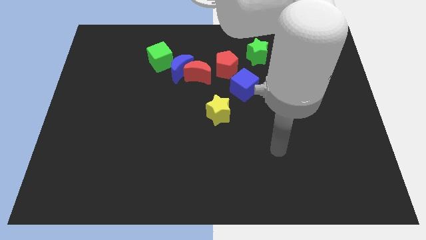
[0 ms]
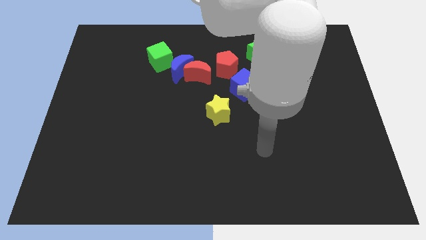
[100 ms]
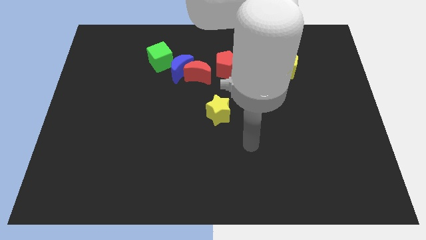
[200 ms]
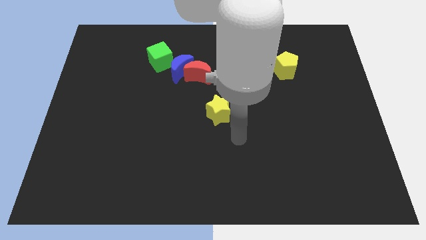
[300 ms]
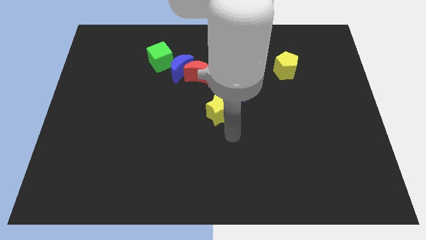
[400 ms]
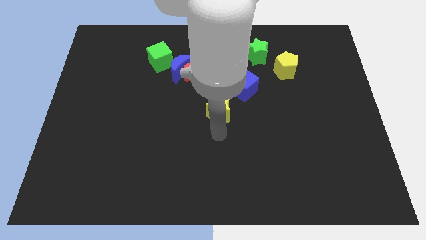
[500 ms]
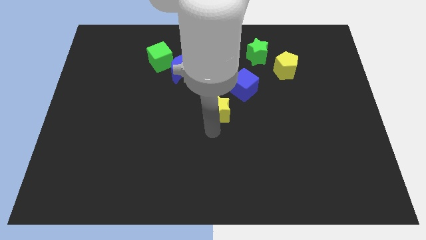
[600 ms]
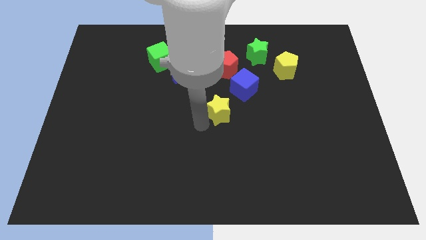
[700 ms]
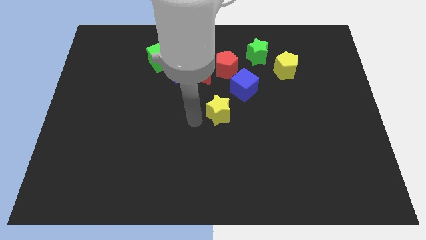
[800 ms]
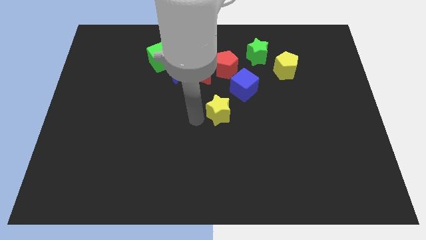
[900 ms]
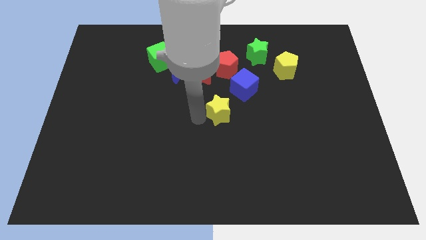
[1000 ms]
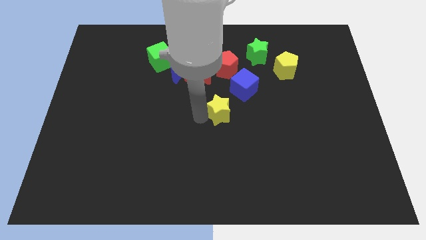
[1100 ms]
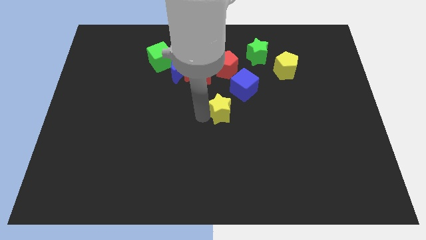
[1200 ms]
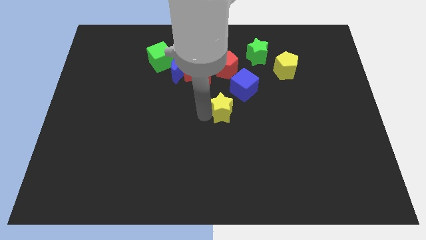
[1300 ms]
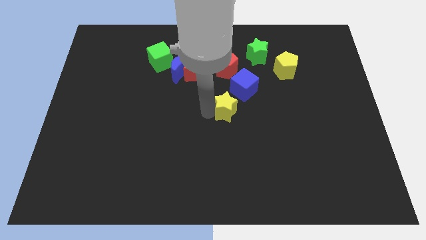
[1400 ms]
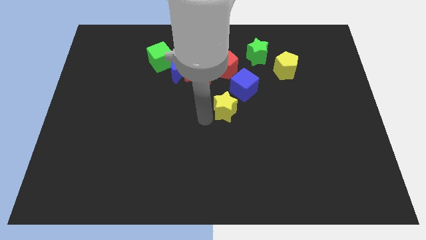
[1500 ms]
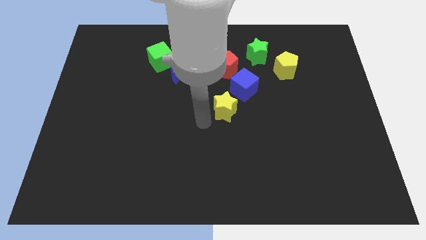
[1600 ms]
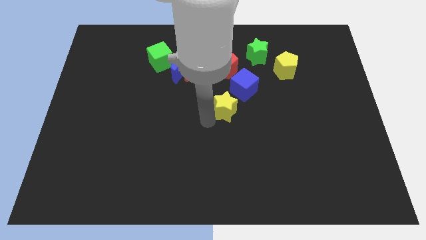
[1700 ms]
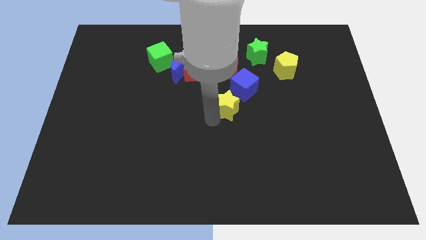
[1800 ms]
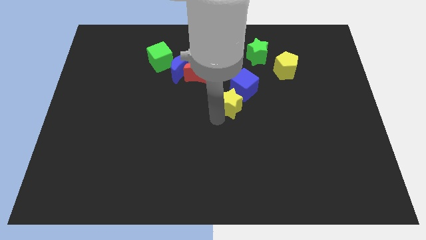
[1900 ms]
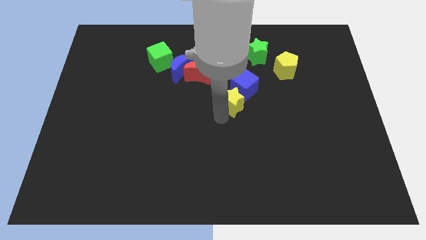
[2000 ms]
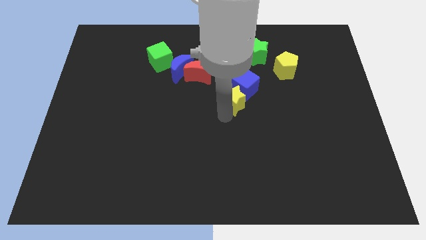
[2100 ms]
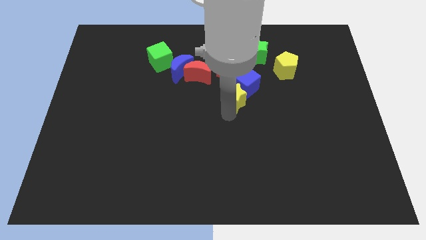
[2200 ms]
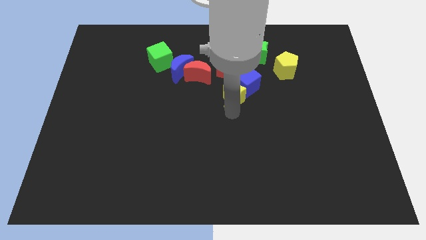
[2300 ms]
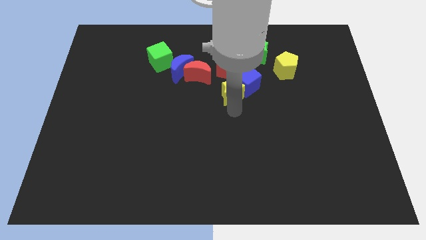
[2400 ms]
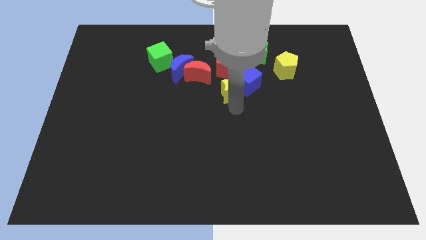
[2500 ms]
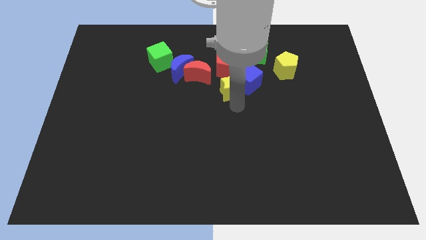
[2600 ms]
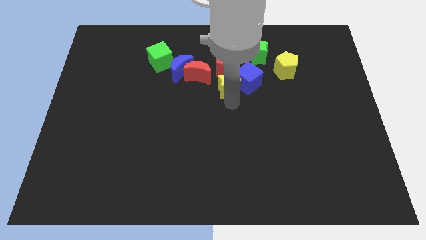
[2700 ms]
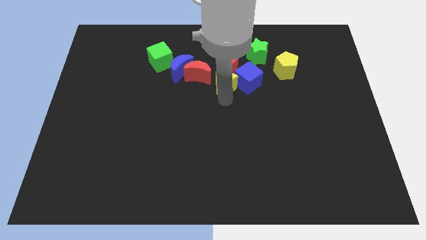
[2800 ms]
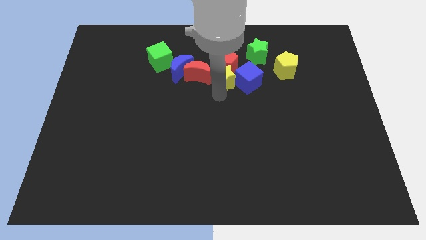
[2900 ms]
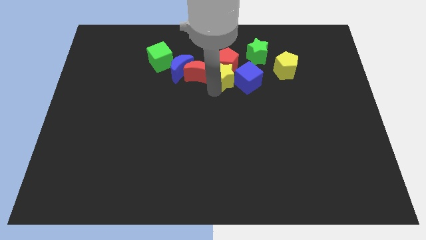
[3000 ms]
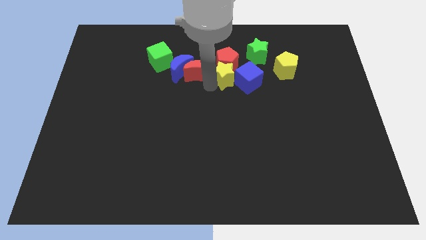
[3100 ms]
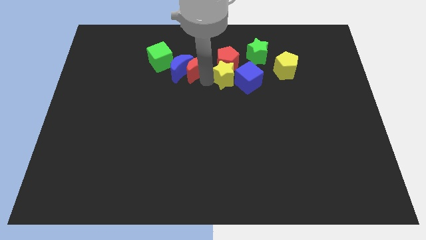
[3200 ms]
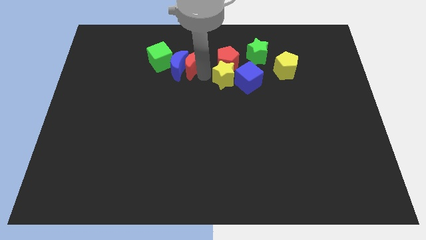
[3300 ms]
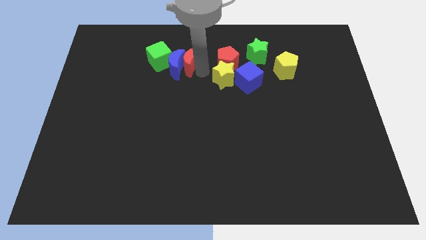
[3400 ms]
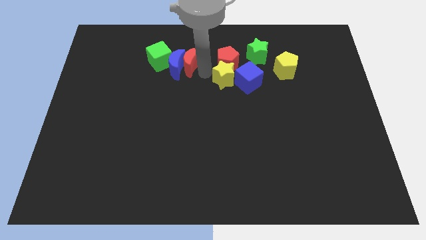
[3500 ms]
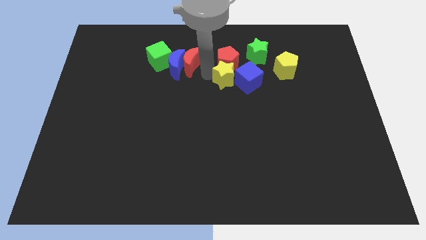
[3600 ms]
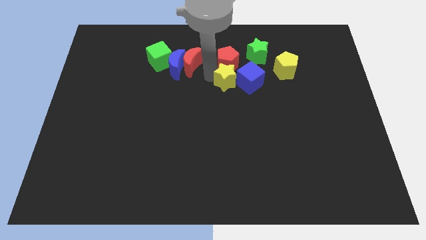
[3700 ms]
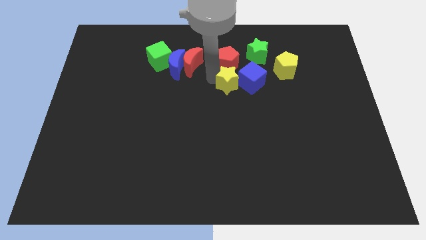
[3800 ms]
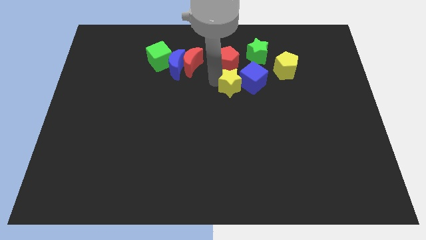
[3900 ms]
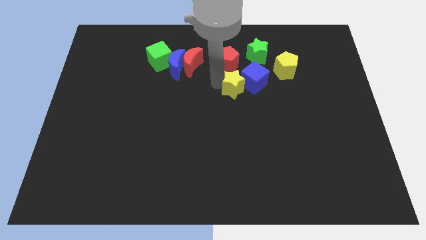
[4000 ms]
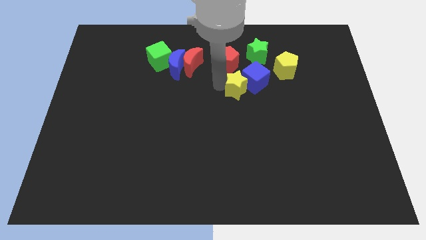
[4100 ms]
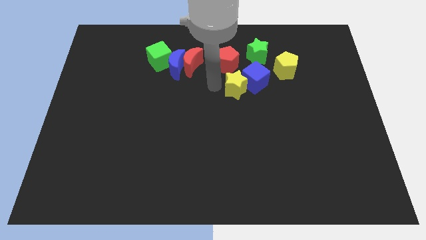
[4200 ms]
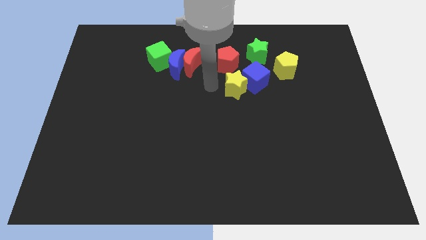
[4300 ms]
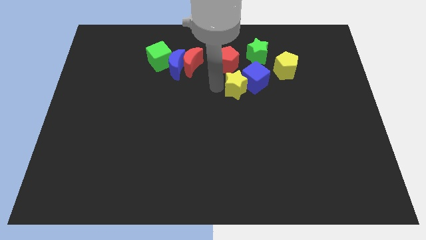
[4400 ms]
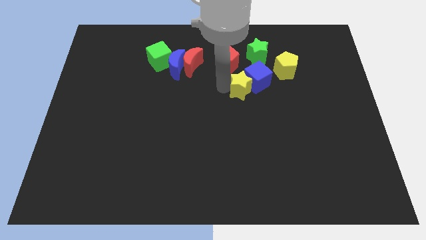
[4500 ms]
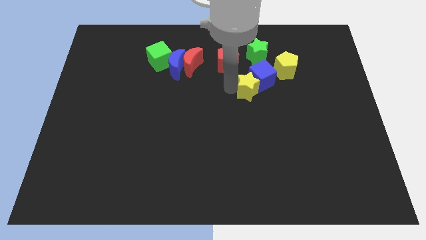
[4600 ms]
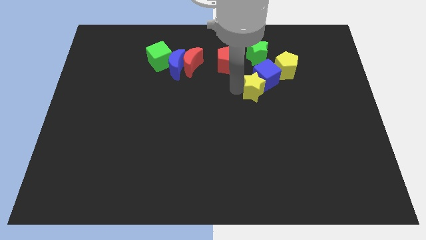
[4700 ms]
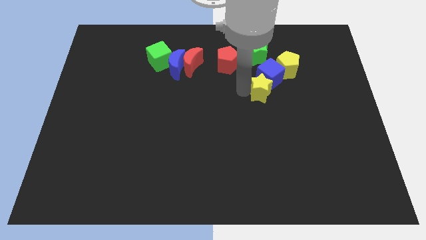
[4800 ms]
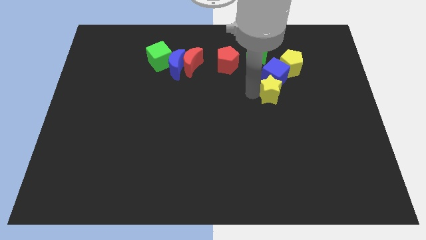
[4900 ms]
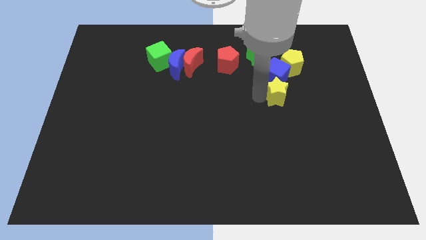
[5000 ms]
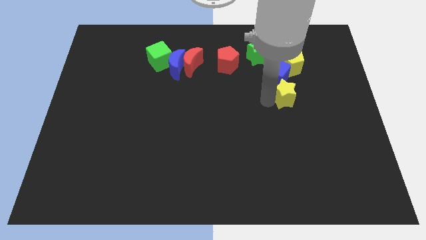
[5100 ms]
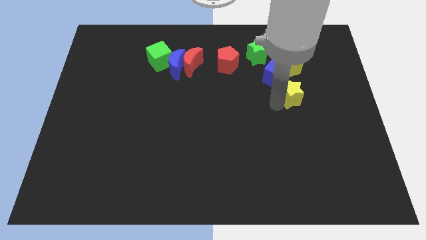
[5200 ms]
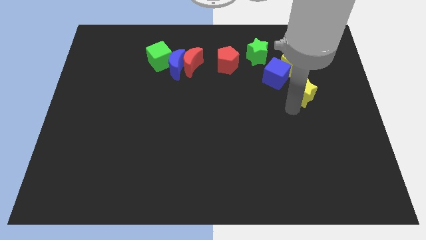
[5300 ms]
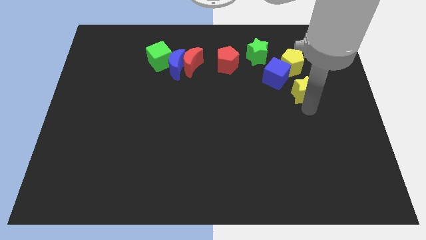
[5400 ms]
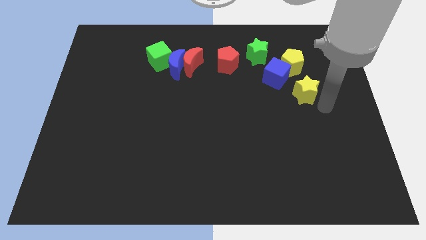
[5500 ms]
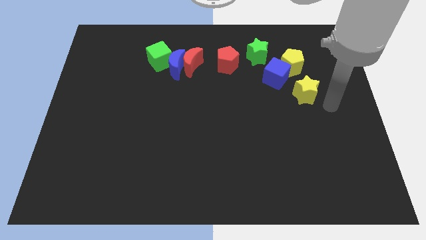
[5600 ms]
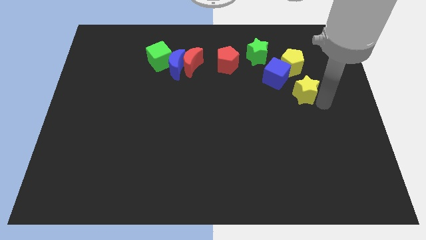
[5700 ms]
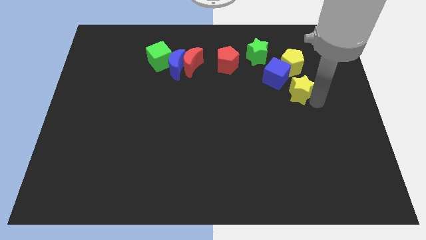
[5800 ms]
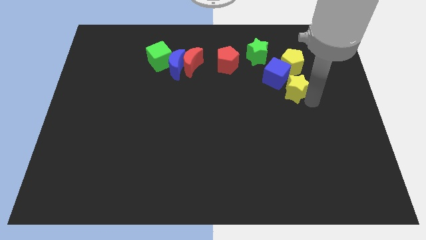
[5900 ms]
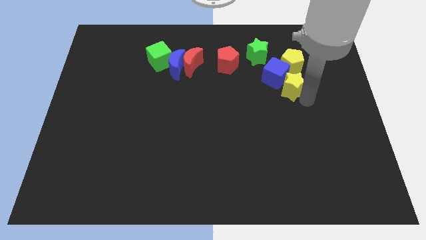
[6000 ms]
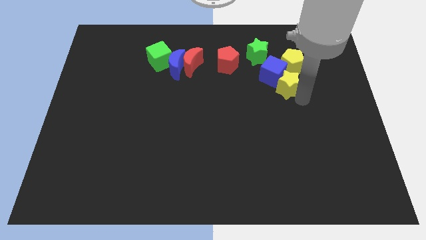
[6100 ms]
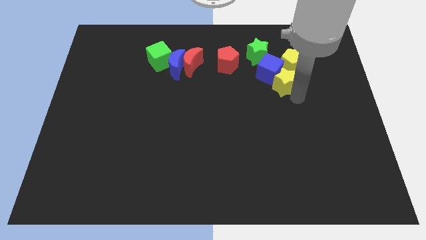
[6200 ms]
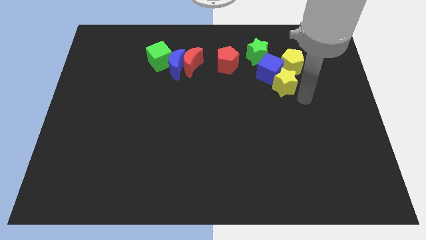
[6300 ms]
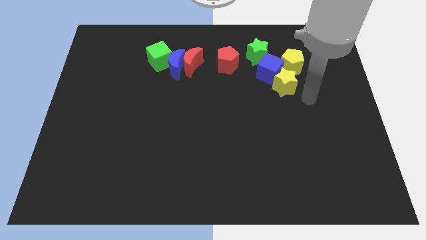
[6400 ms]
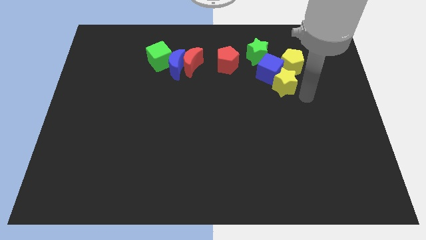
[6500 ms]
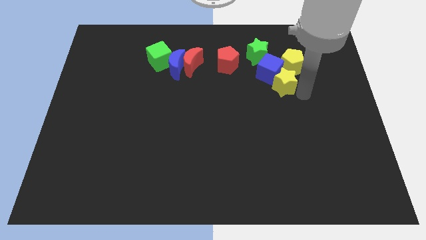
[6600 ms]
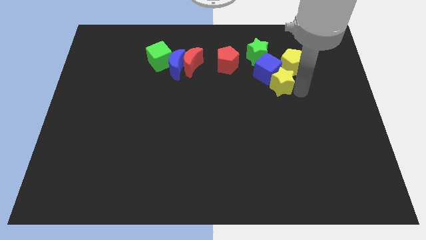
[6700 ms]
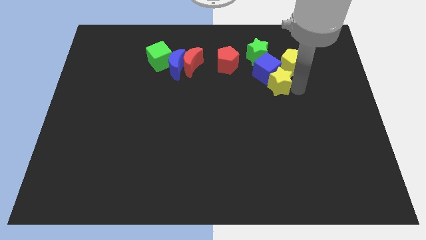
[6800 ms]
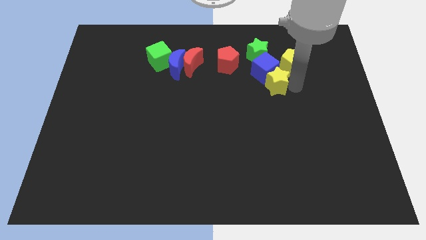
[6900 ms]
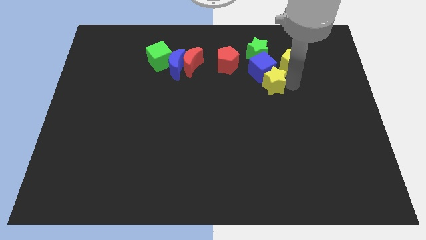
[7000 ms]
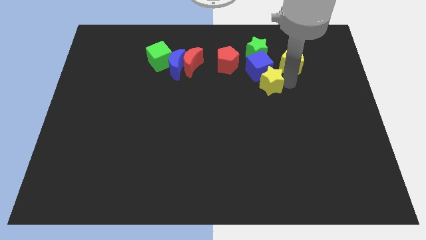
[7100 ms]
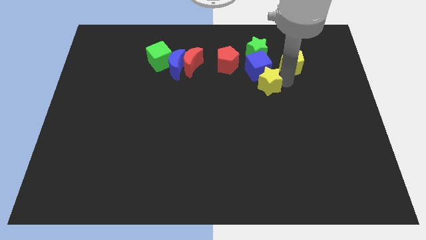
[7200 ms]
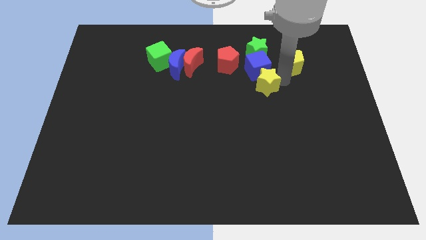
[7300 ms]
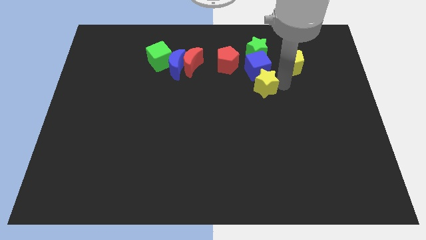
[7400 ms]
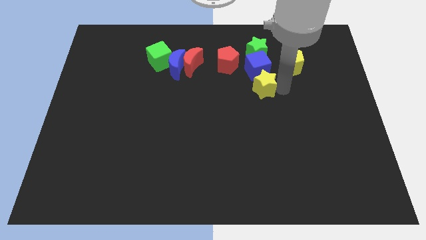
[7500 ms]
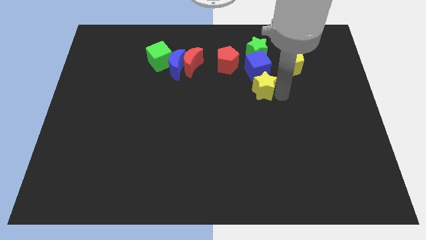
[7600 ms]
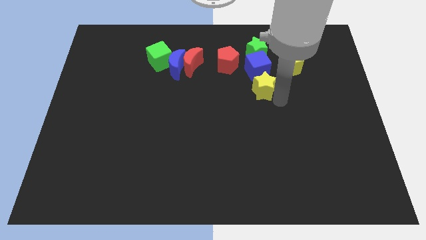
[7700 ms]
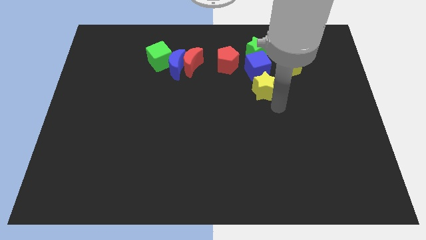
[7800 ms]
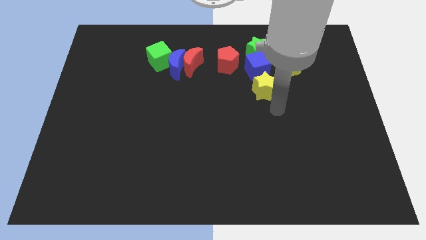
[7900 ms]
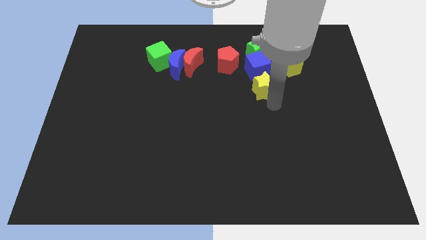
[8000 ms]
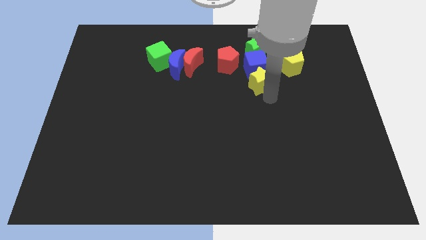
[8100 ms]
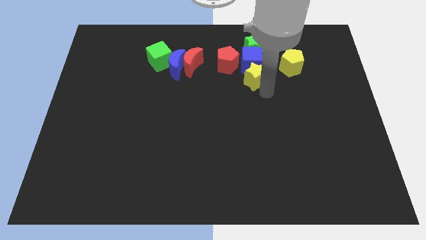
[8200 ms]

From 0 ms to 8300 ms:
slide the yellow star just left of the yellow pentagon
